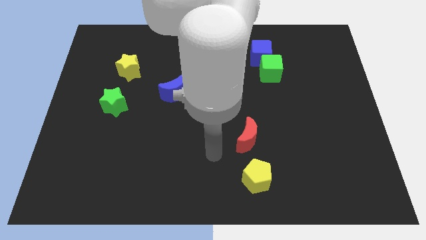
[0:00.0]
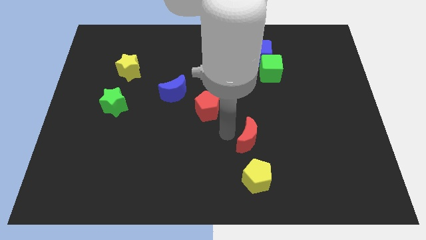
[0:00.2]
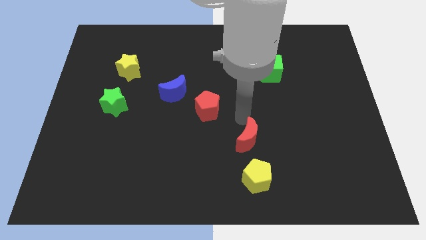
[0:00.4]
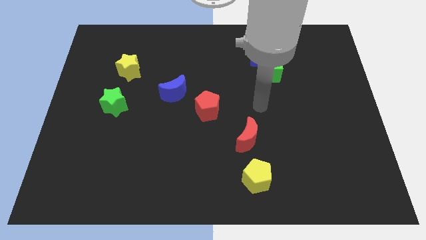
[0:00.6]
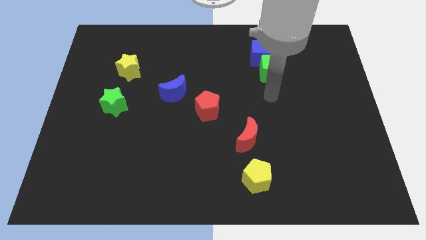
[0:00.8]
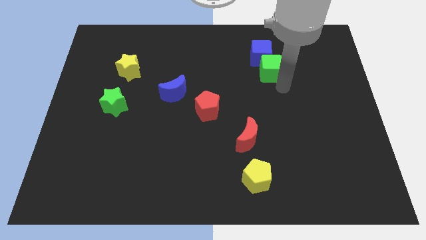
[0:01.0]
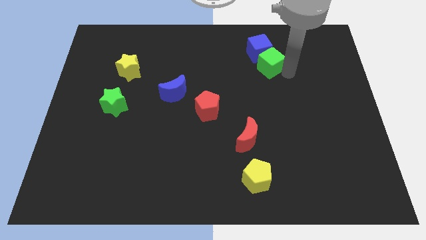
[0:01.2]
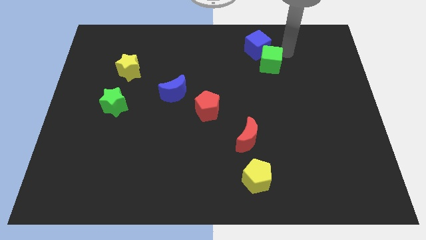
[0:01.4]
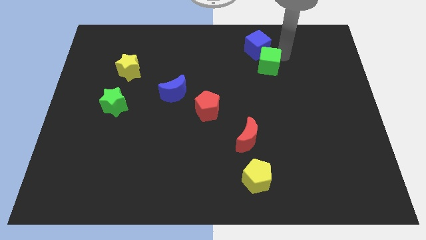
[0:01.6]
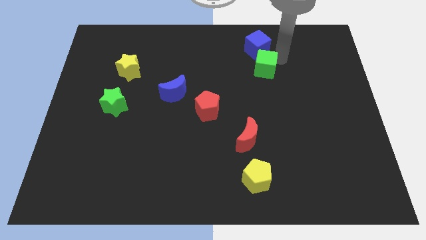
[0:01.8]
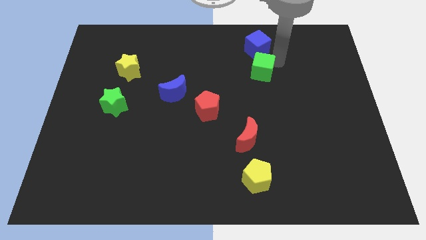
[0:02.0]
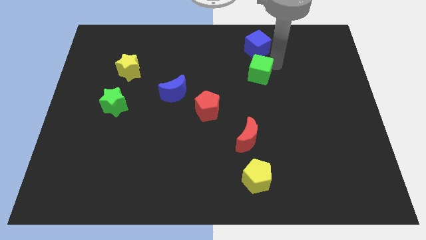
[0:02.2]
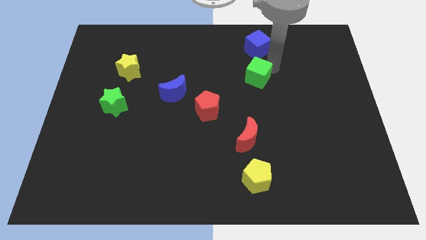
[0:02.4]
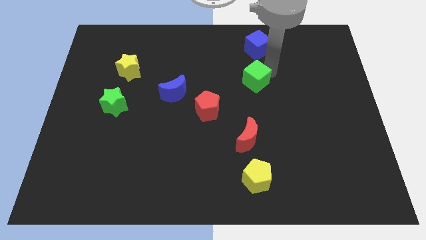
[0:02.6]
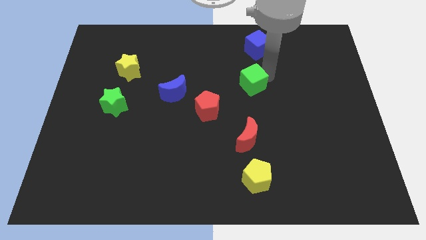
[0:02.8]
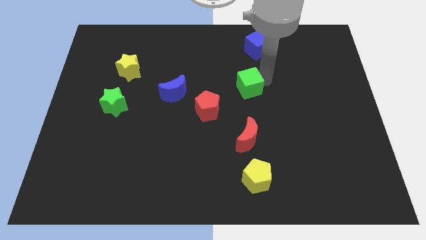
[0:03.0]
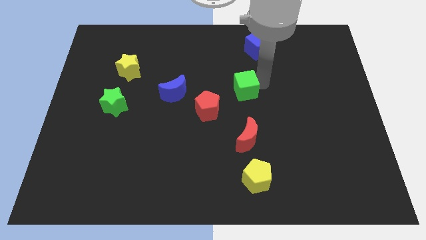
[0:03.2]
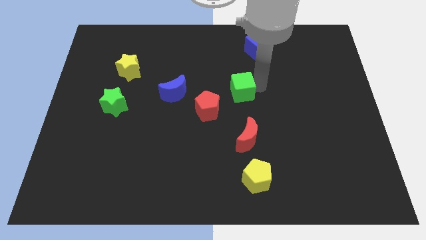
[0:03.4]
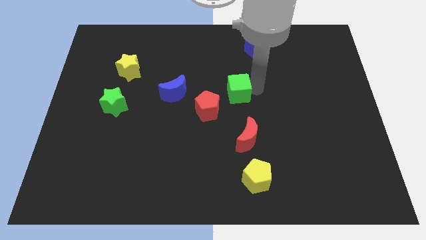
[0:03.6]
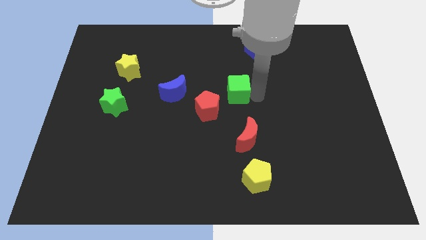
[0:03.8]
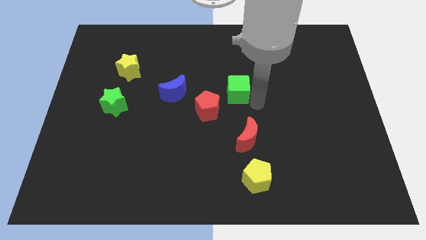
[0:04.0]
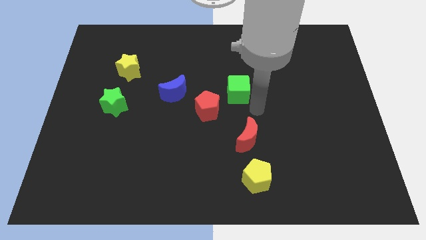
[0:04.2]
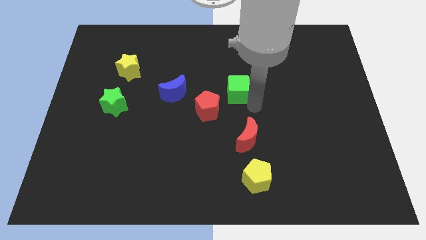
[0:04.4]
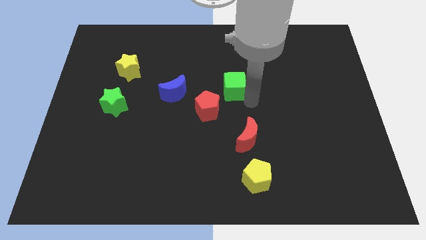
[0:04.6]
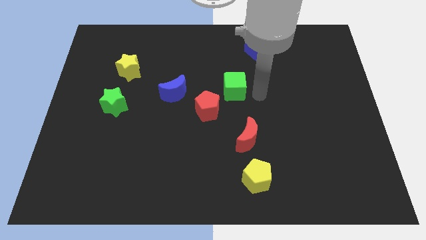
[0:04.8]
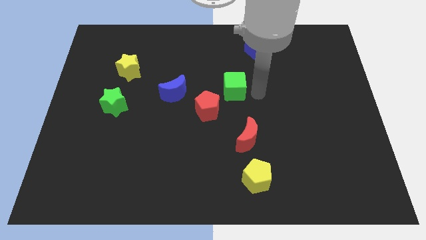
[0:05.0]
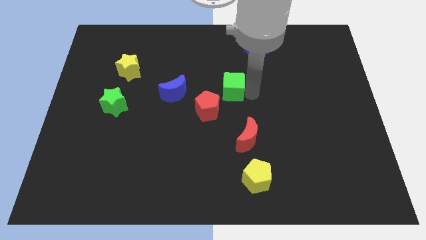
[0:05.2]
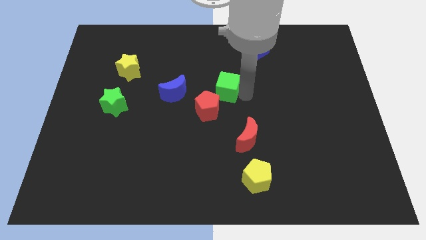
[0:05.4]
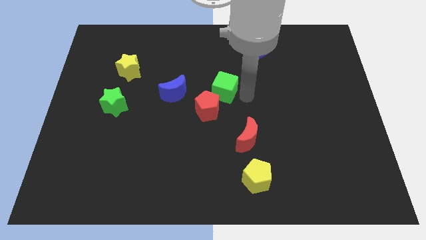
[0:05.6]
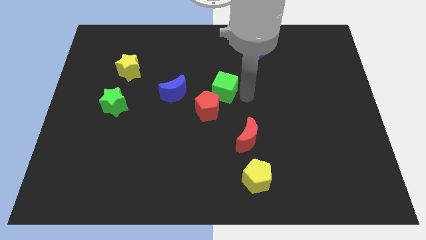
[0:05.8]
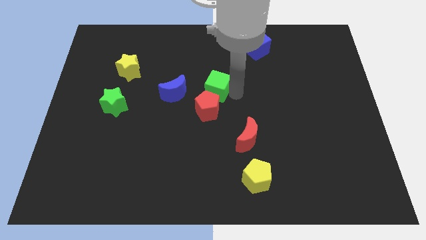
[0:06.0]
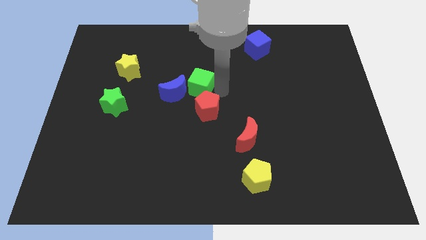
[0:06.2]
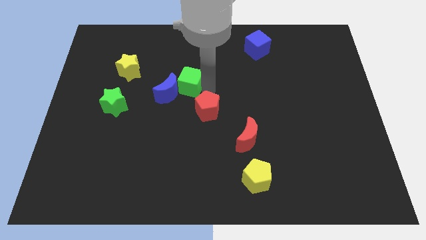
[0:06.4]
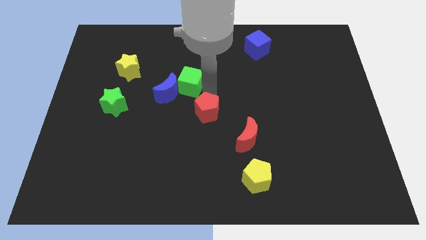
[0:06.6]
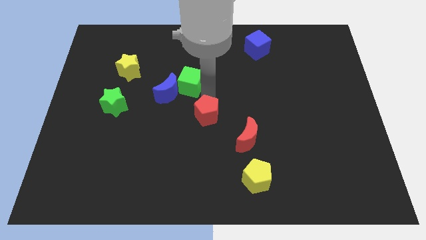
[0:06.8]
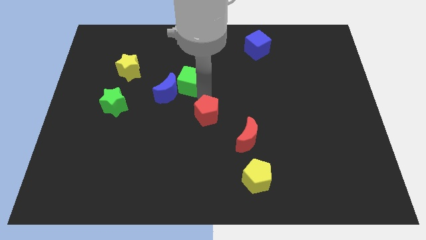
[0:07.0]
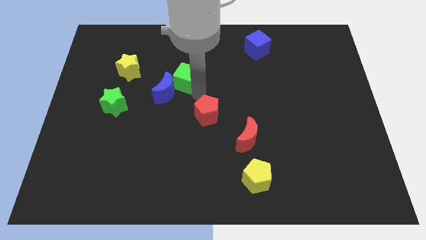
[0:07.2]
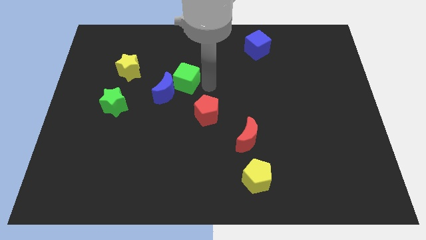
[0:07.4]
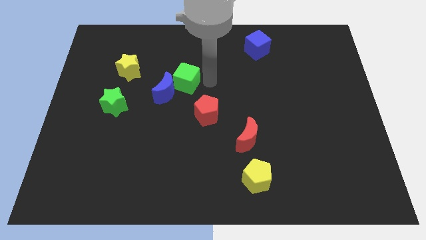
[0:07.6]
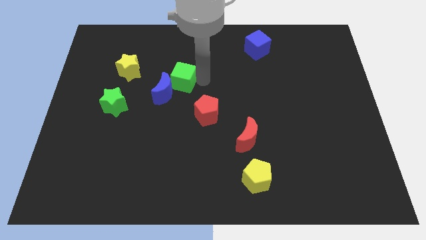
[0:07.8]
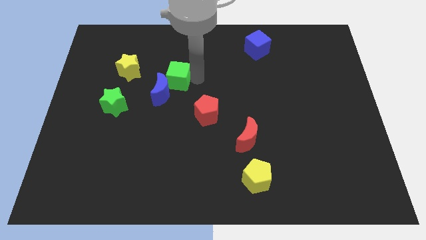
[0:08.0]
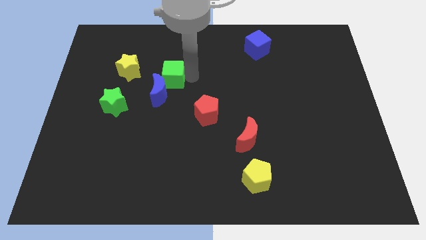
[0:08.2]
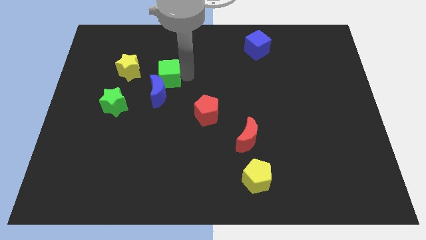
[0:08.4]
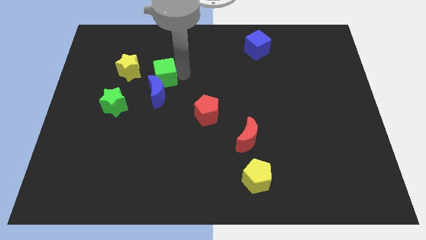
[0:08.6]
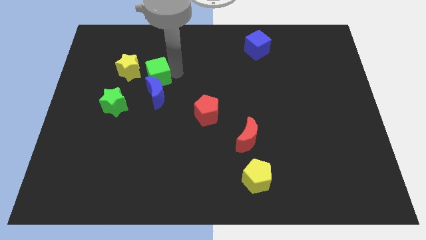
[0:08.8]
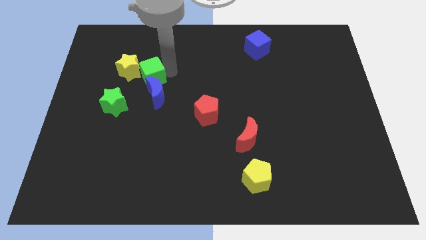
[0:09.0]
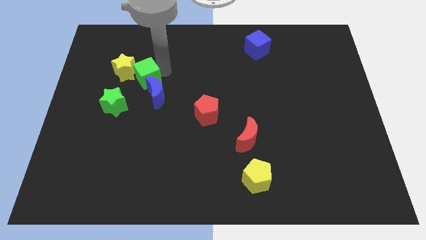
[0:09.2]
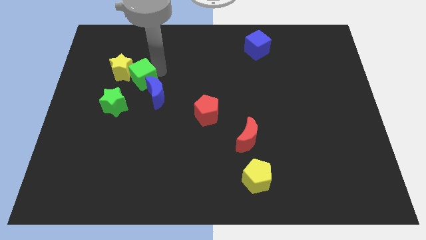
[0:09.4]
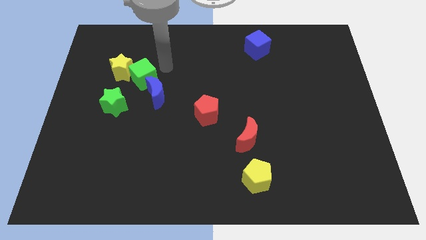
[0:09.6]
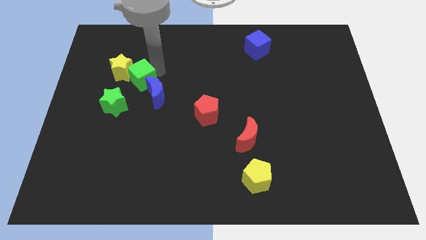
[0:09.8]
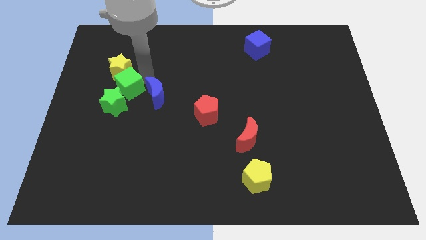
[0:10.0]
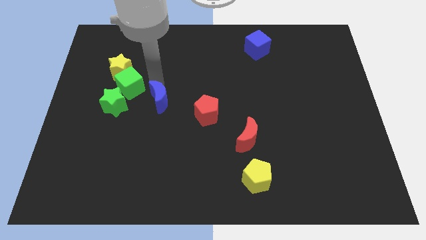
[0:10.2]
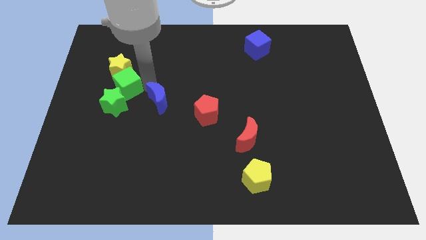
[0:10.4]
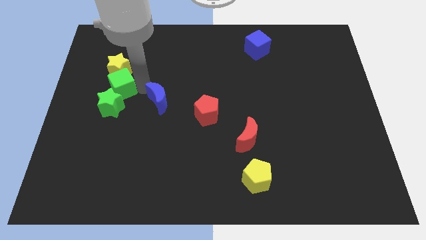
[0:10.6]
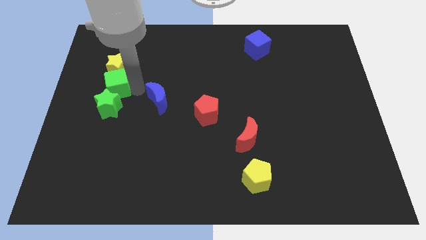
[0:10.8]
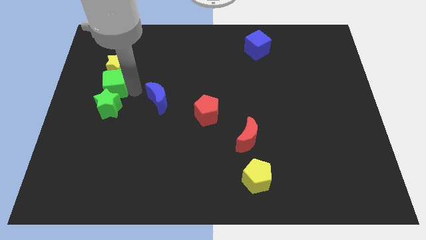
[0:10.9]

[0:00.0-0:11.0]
move the green cube to the top left side of the green star

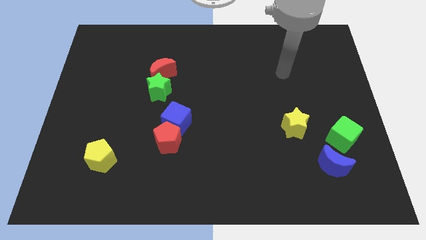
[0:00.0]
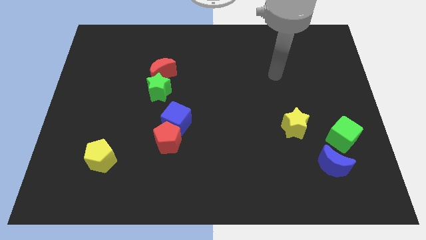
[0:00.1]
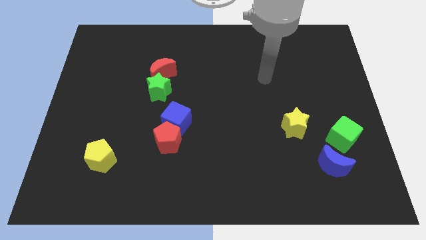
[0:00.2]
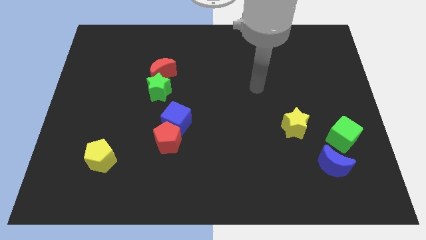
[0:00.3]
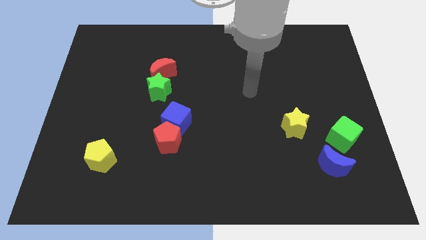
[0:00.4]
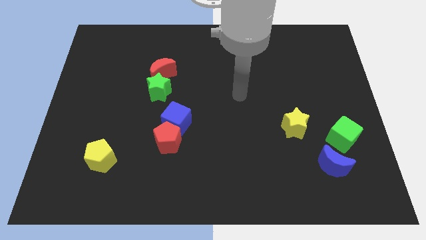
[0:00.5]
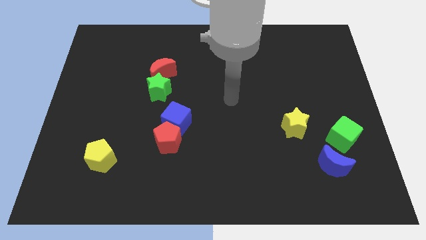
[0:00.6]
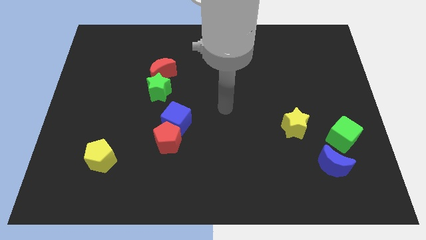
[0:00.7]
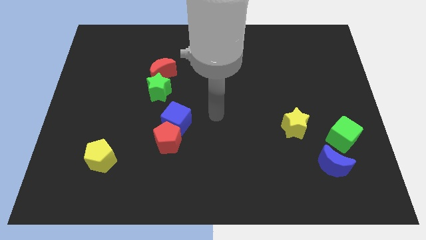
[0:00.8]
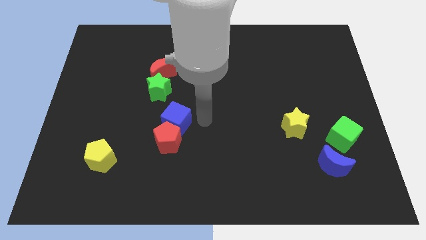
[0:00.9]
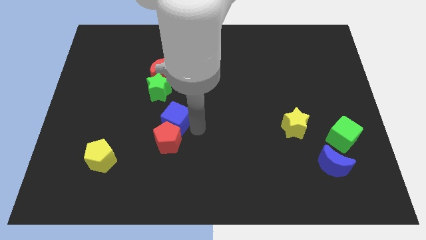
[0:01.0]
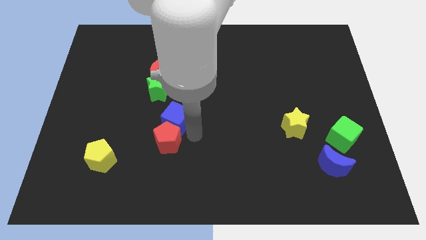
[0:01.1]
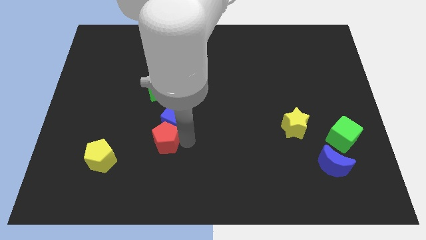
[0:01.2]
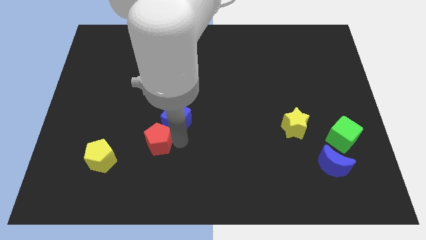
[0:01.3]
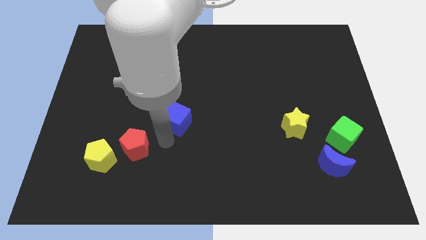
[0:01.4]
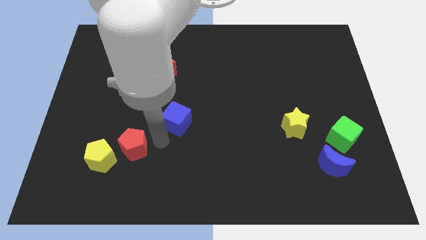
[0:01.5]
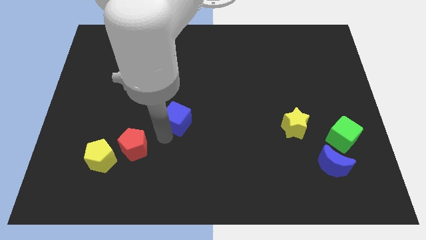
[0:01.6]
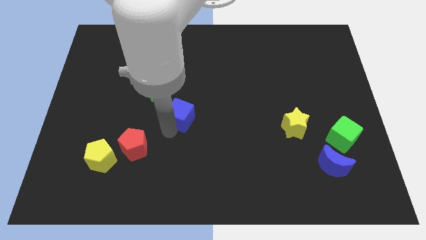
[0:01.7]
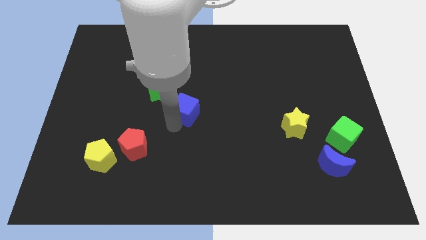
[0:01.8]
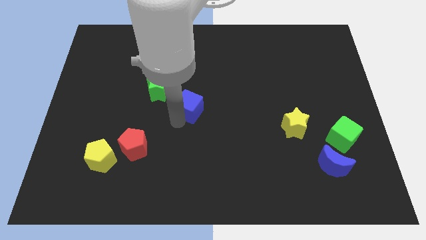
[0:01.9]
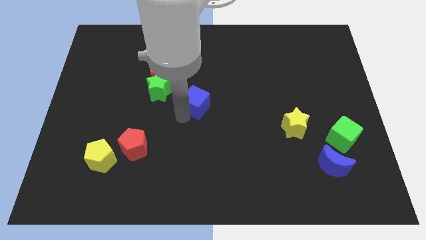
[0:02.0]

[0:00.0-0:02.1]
push the blue cube to the right of the green star
